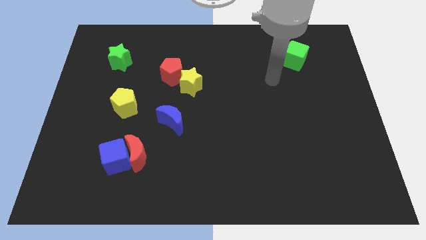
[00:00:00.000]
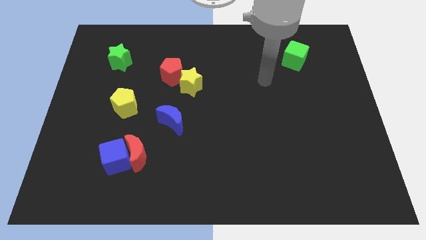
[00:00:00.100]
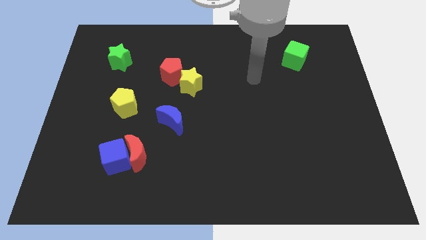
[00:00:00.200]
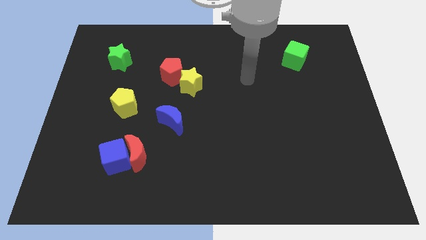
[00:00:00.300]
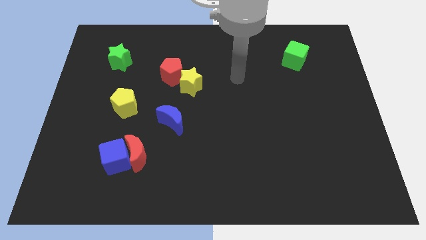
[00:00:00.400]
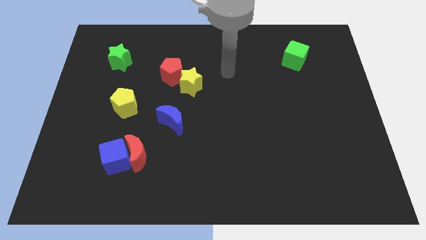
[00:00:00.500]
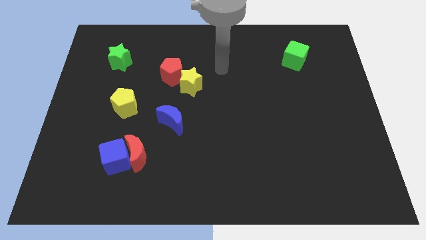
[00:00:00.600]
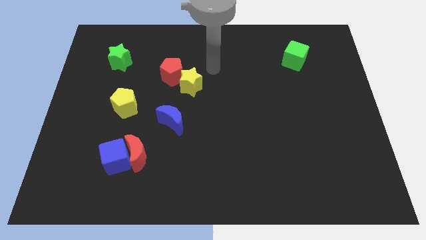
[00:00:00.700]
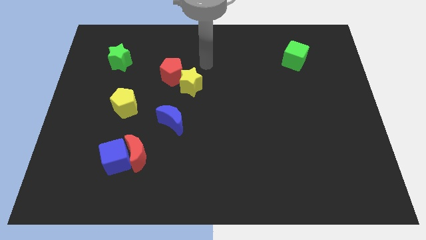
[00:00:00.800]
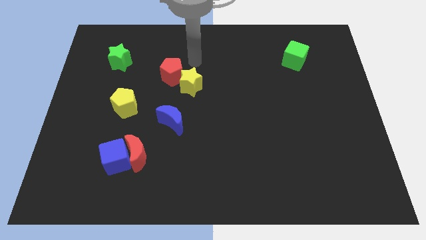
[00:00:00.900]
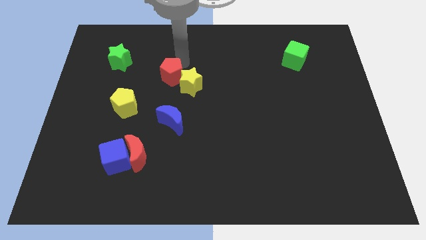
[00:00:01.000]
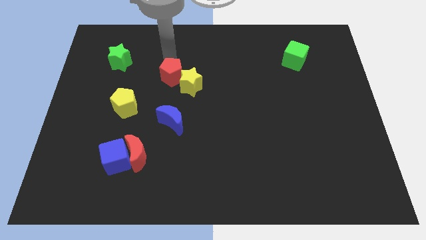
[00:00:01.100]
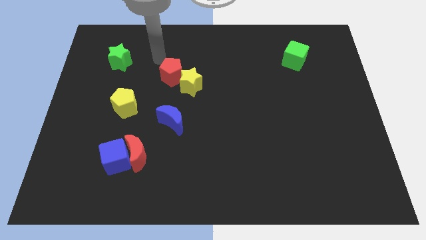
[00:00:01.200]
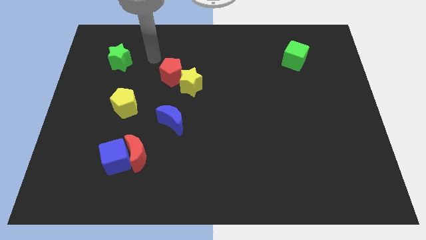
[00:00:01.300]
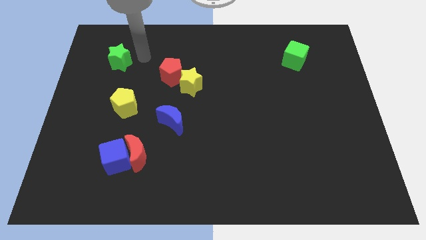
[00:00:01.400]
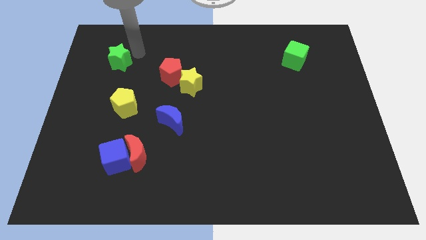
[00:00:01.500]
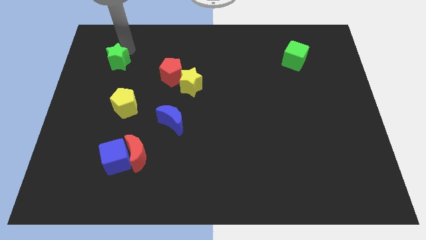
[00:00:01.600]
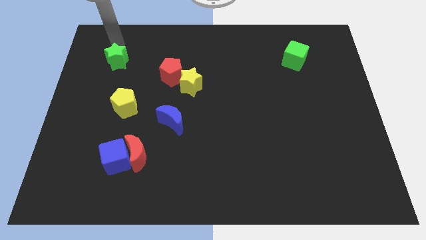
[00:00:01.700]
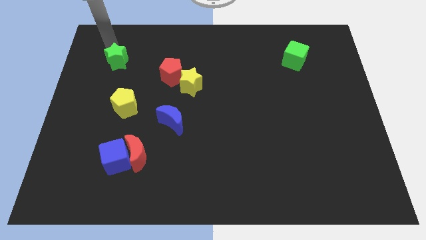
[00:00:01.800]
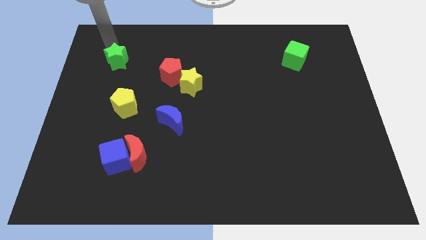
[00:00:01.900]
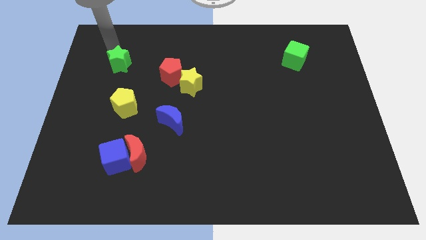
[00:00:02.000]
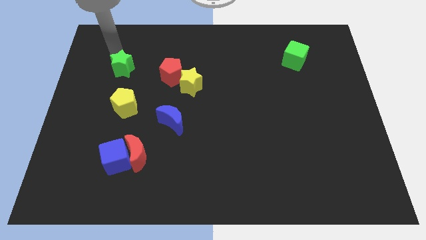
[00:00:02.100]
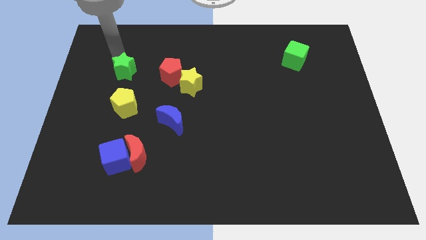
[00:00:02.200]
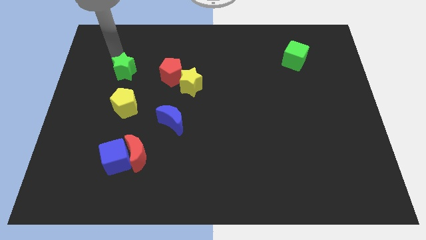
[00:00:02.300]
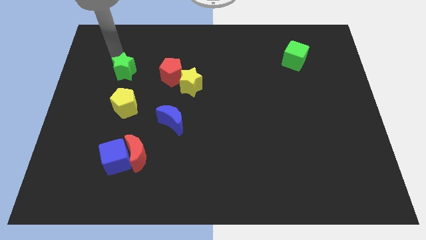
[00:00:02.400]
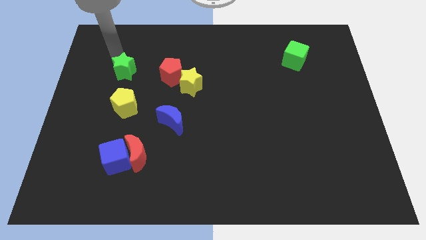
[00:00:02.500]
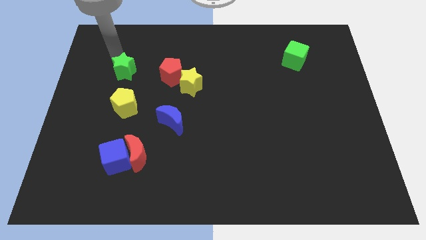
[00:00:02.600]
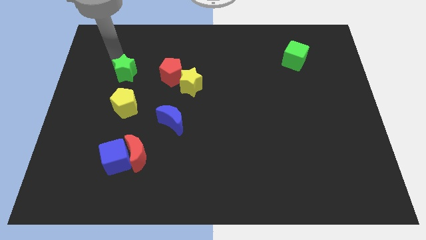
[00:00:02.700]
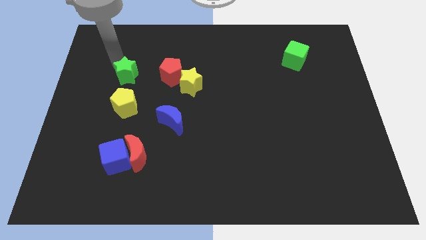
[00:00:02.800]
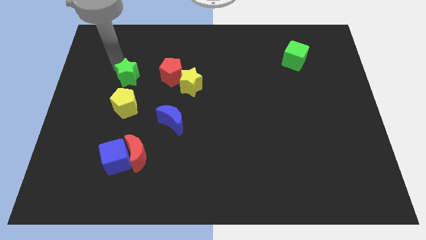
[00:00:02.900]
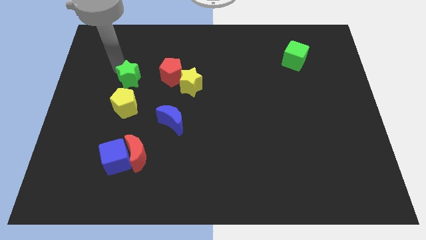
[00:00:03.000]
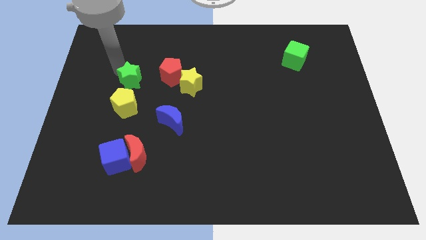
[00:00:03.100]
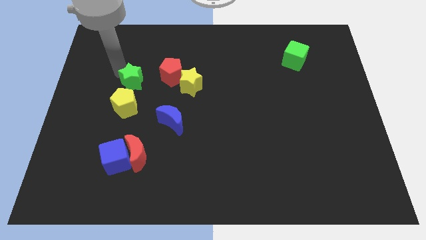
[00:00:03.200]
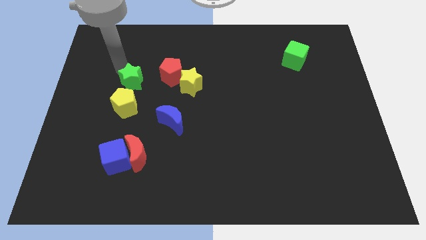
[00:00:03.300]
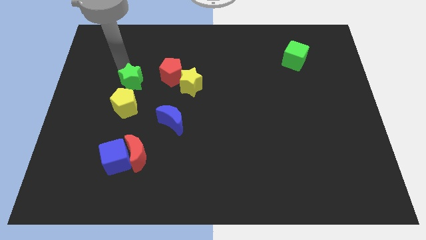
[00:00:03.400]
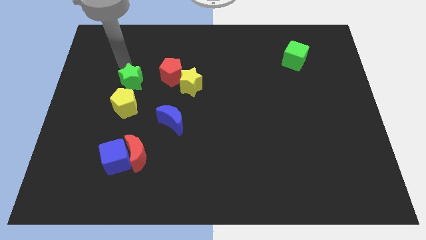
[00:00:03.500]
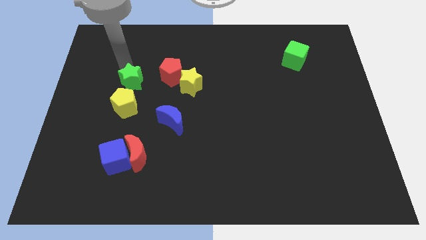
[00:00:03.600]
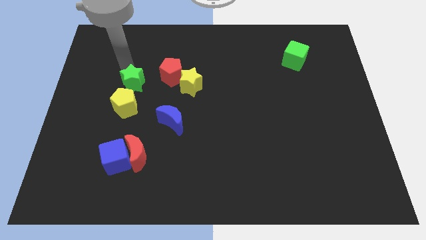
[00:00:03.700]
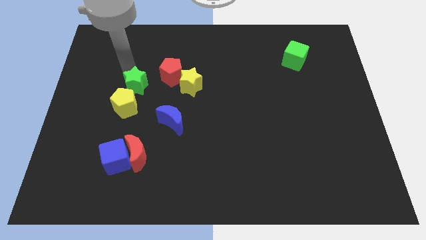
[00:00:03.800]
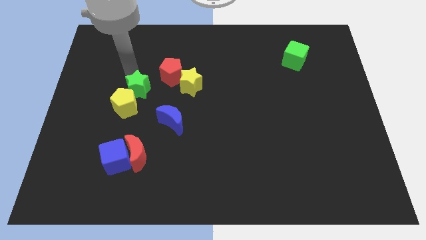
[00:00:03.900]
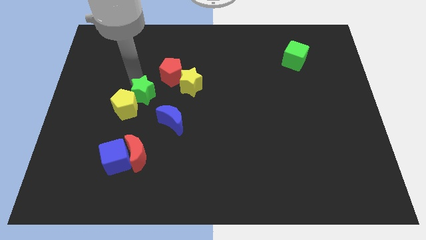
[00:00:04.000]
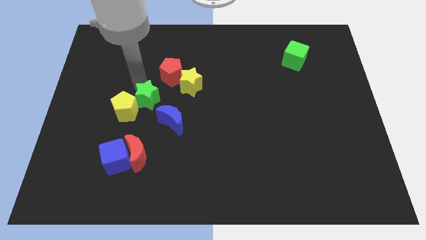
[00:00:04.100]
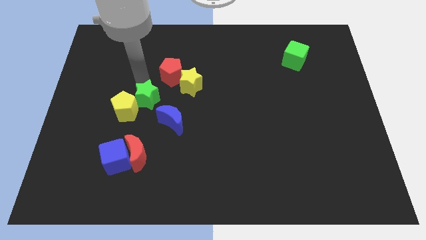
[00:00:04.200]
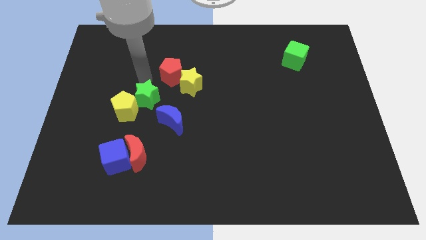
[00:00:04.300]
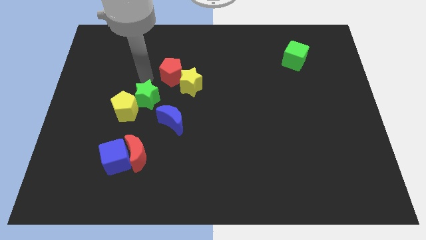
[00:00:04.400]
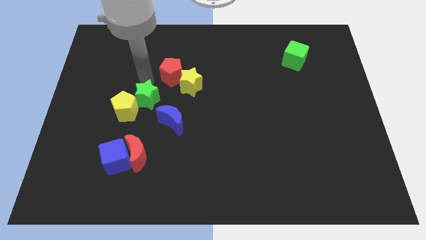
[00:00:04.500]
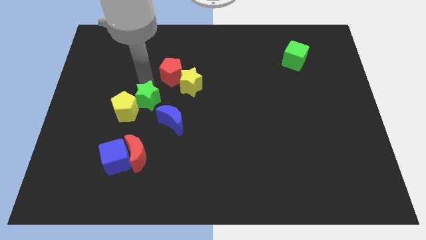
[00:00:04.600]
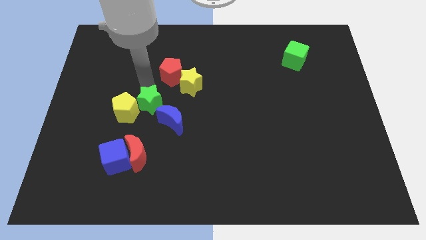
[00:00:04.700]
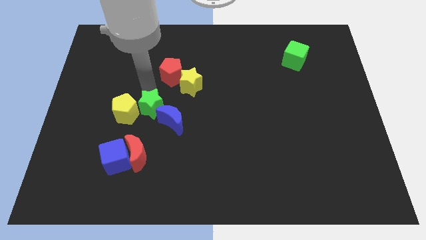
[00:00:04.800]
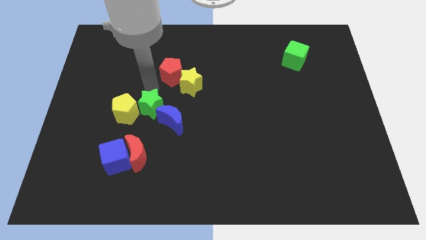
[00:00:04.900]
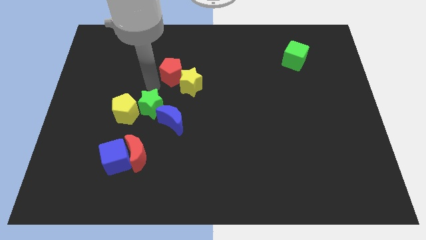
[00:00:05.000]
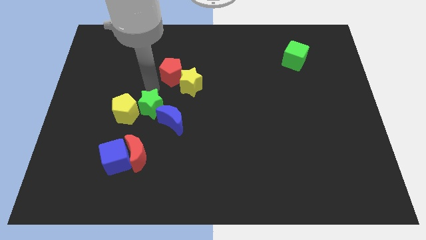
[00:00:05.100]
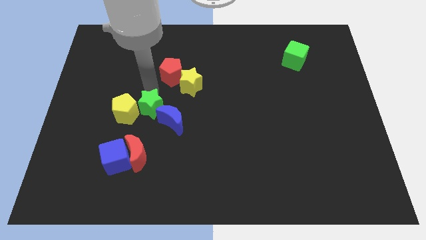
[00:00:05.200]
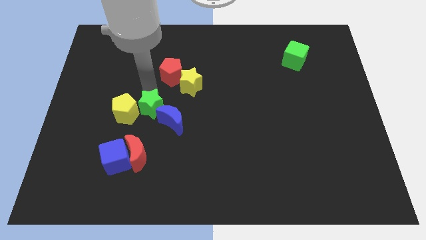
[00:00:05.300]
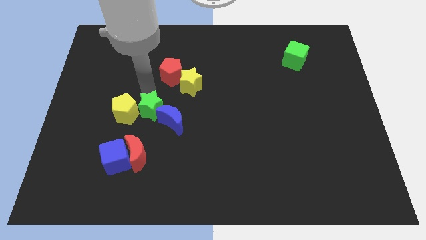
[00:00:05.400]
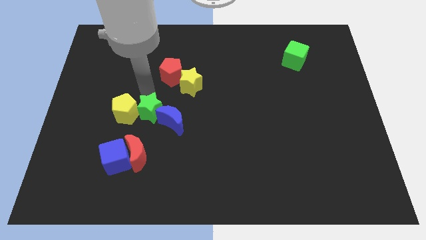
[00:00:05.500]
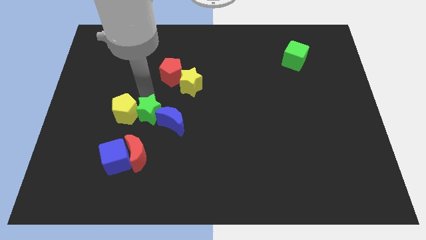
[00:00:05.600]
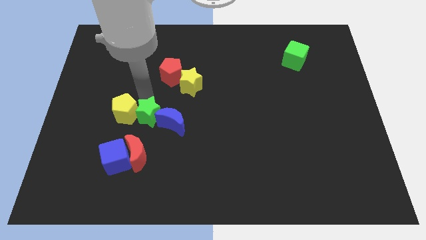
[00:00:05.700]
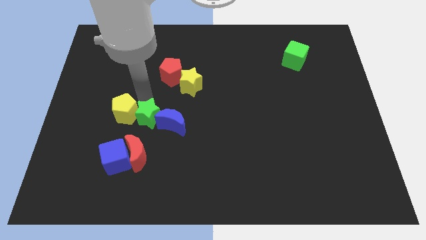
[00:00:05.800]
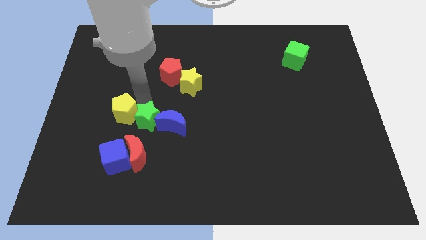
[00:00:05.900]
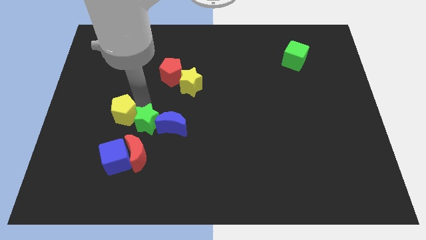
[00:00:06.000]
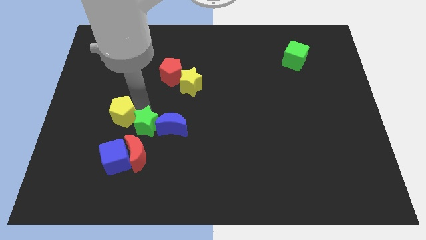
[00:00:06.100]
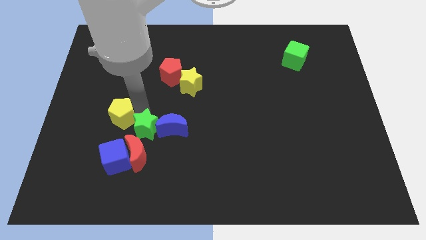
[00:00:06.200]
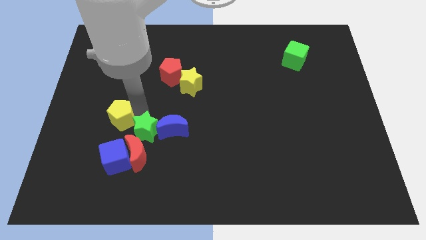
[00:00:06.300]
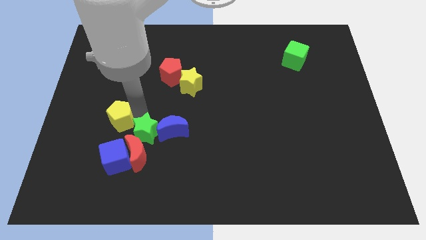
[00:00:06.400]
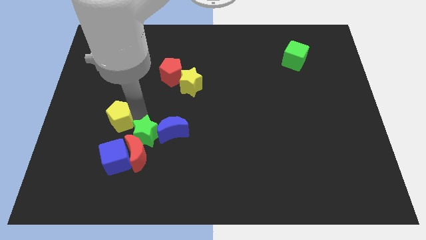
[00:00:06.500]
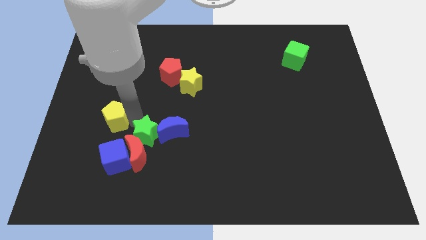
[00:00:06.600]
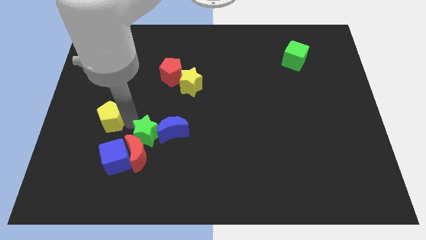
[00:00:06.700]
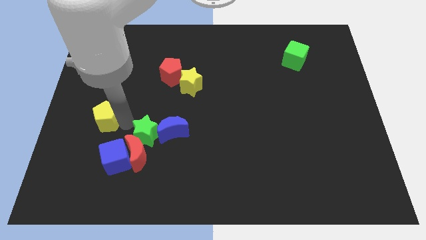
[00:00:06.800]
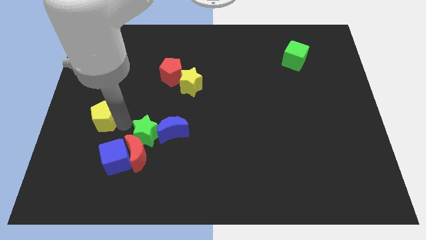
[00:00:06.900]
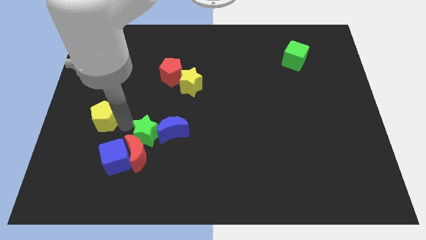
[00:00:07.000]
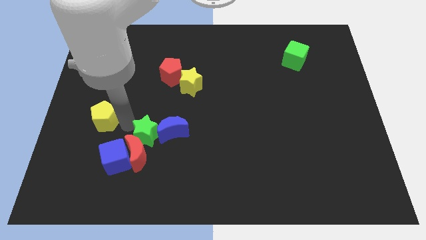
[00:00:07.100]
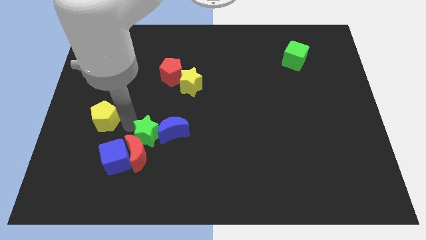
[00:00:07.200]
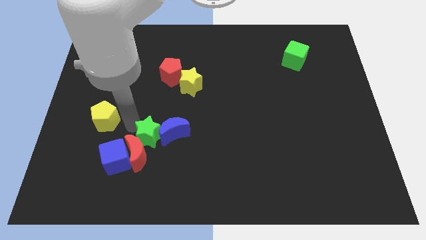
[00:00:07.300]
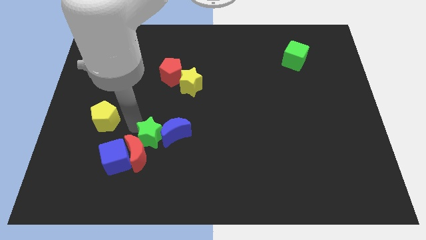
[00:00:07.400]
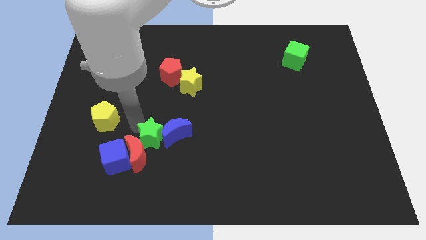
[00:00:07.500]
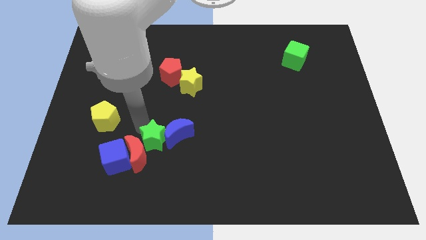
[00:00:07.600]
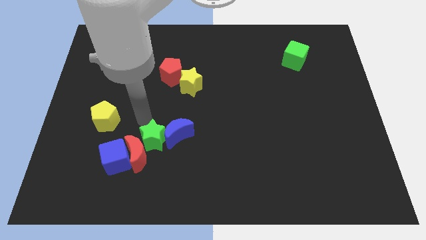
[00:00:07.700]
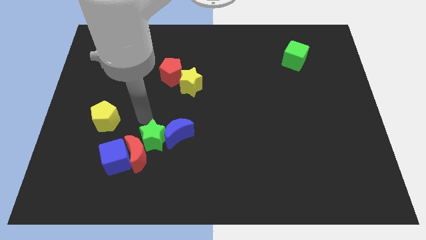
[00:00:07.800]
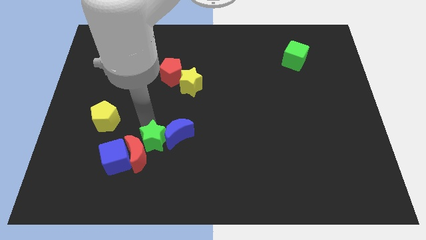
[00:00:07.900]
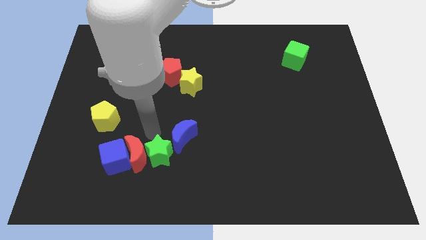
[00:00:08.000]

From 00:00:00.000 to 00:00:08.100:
push the green star to the bottom of the blue moon
